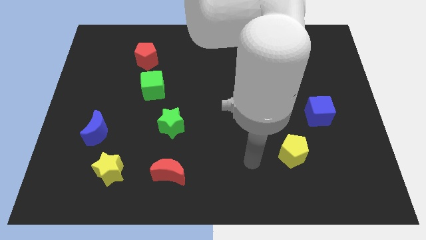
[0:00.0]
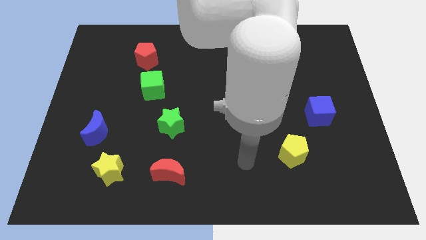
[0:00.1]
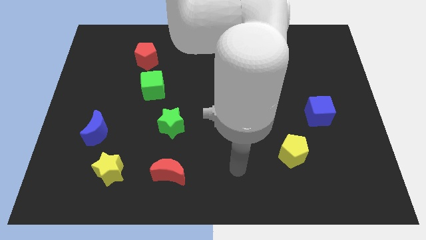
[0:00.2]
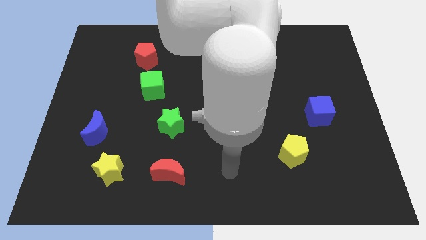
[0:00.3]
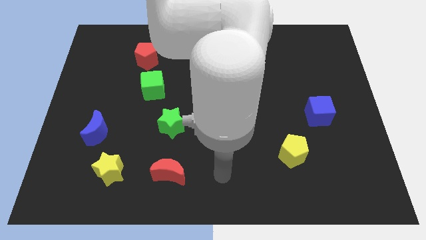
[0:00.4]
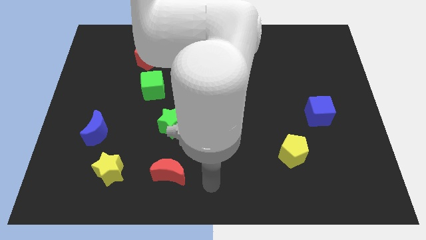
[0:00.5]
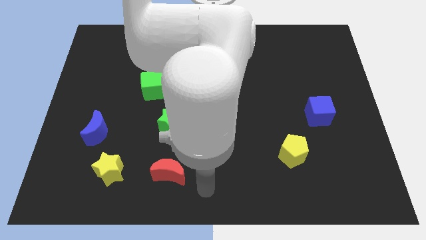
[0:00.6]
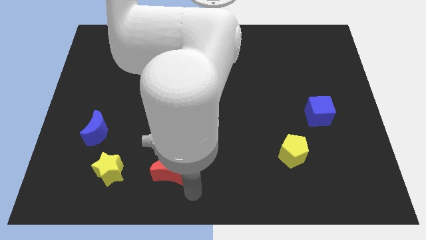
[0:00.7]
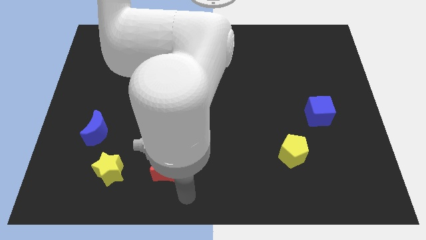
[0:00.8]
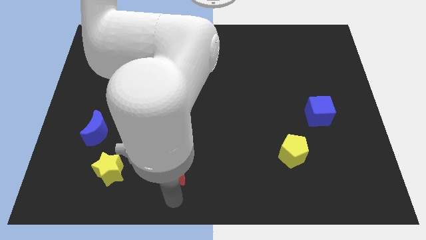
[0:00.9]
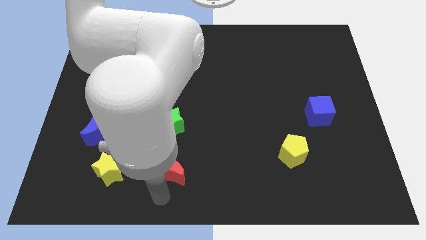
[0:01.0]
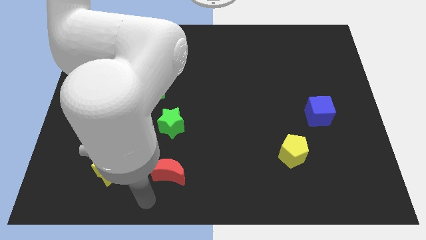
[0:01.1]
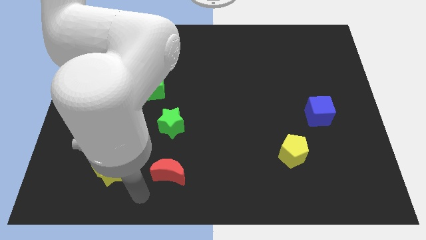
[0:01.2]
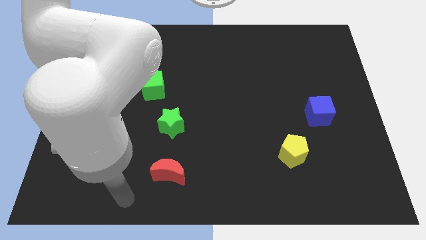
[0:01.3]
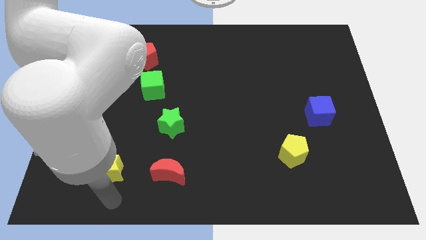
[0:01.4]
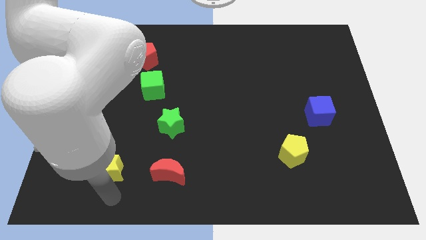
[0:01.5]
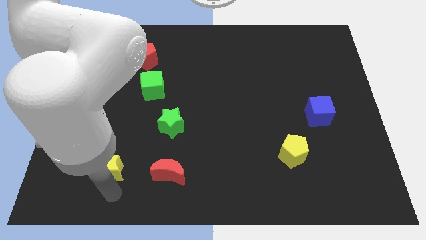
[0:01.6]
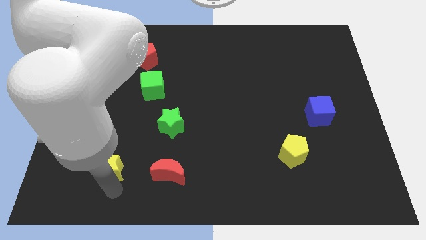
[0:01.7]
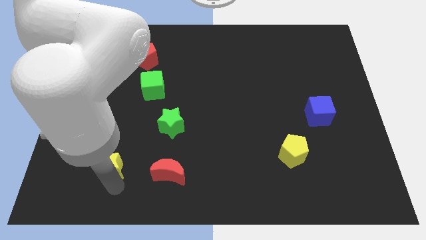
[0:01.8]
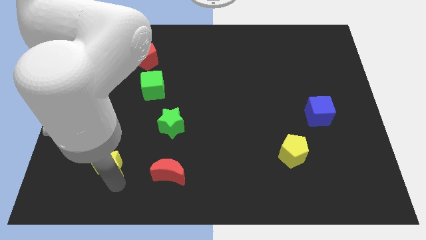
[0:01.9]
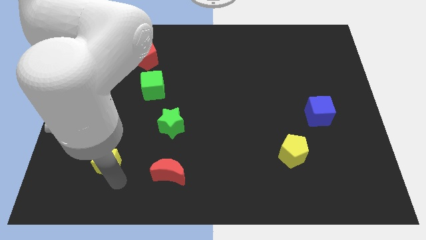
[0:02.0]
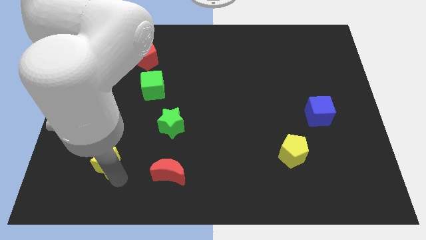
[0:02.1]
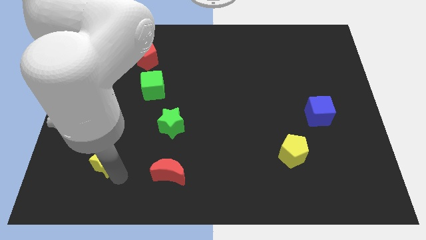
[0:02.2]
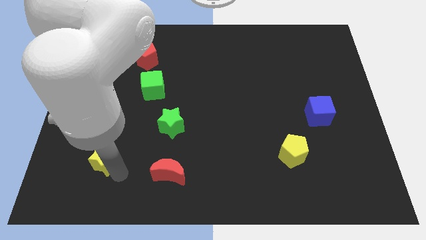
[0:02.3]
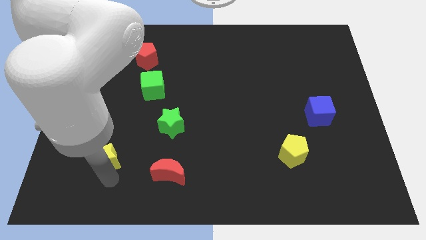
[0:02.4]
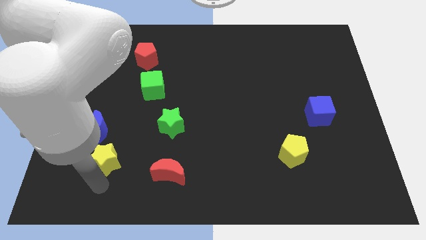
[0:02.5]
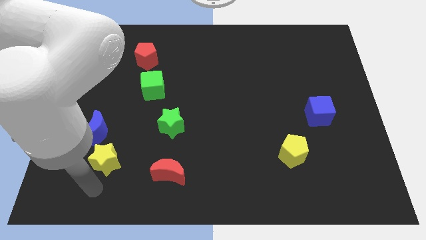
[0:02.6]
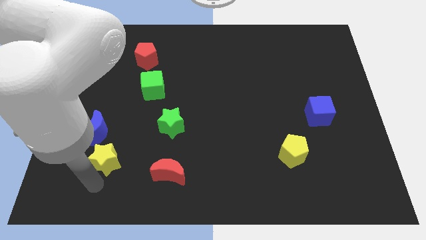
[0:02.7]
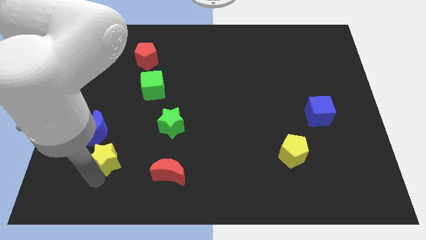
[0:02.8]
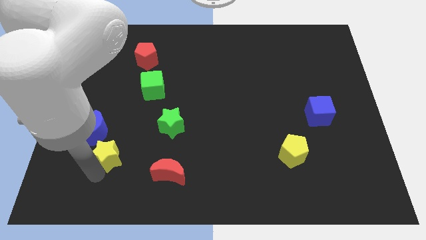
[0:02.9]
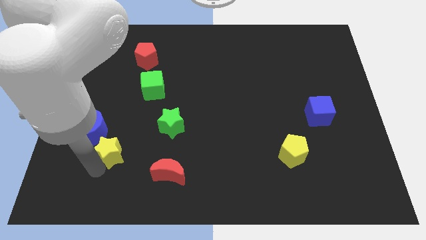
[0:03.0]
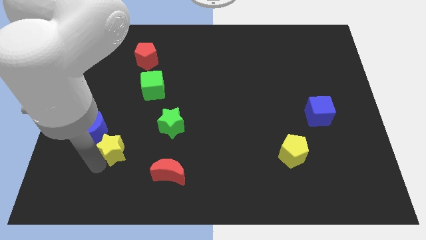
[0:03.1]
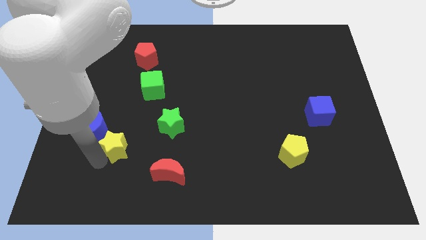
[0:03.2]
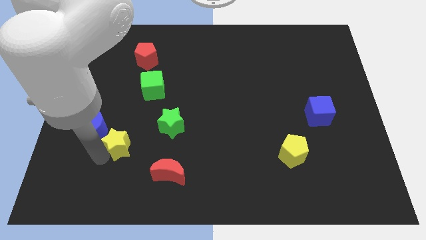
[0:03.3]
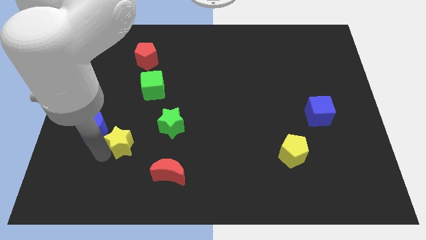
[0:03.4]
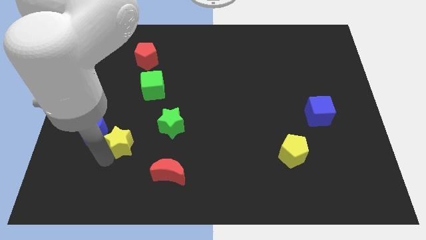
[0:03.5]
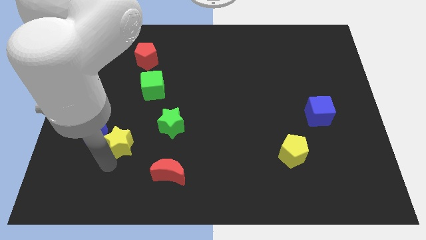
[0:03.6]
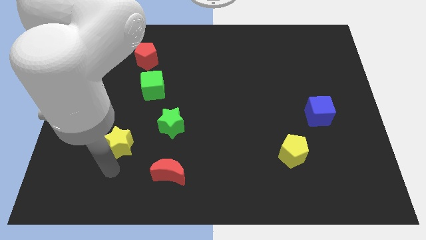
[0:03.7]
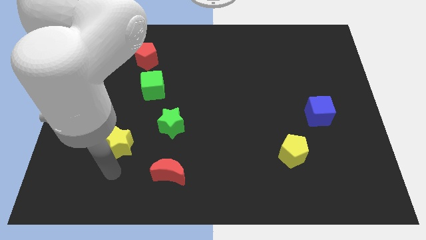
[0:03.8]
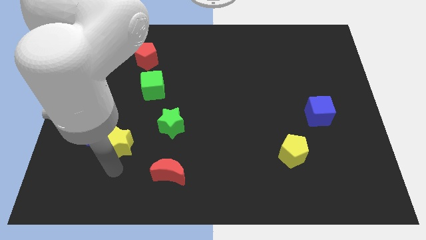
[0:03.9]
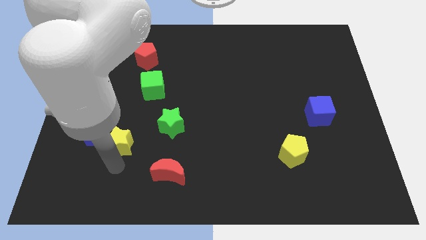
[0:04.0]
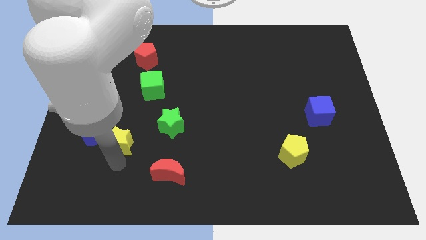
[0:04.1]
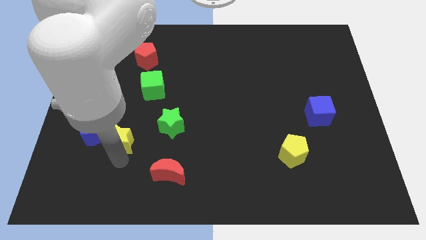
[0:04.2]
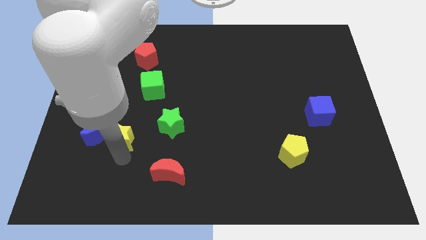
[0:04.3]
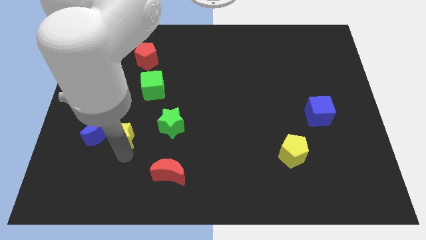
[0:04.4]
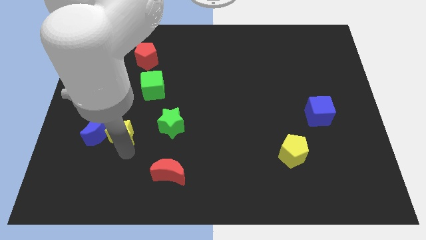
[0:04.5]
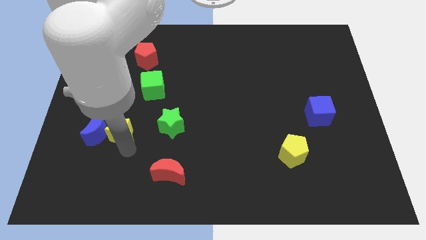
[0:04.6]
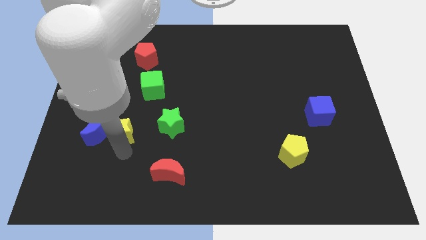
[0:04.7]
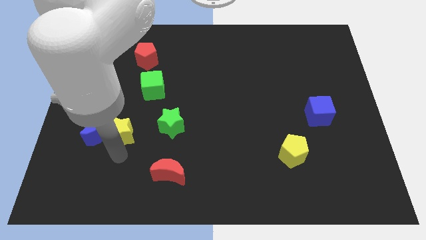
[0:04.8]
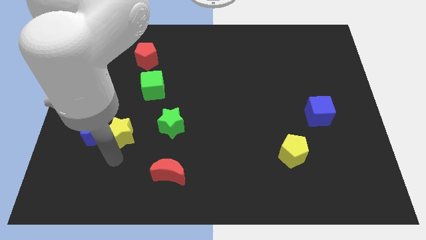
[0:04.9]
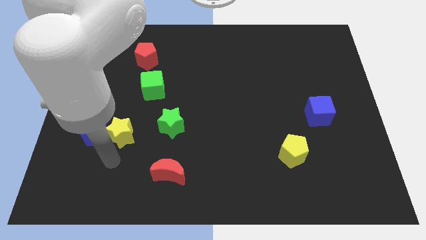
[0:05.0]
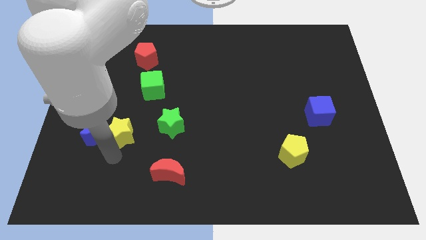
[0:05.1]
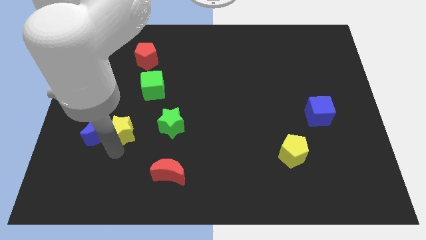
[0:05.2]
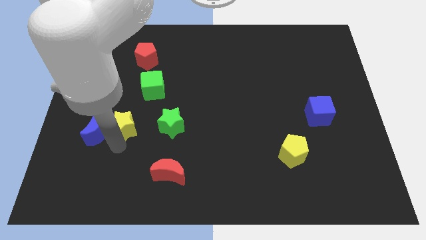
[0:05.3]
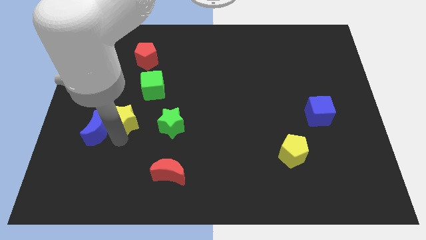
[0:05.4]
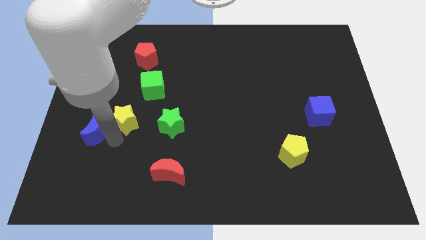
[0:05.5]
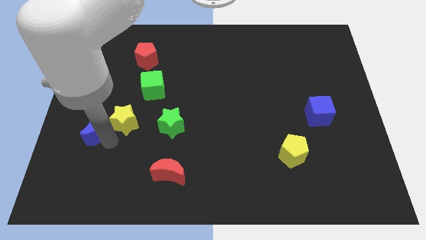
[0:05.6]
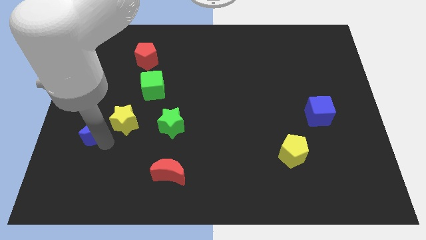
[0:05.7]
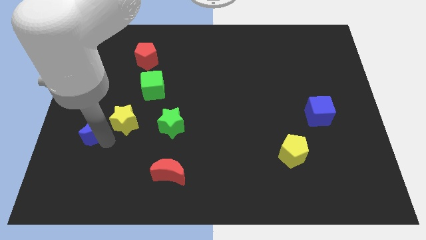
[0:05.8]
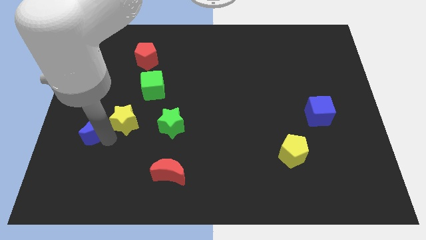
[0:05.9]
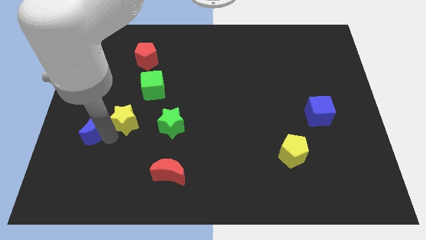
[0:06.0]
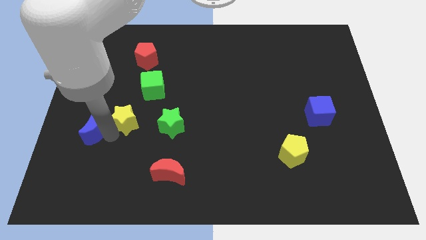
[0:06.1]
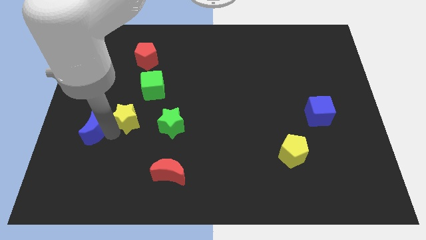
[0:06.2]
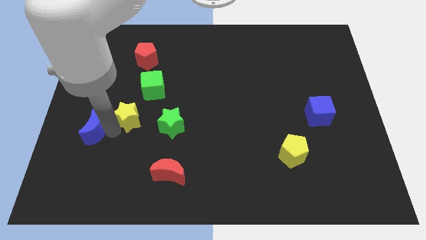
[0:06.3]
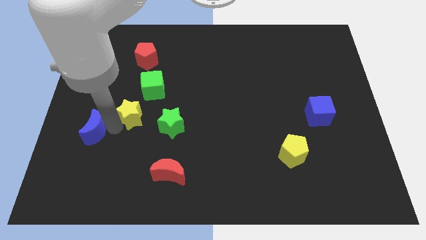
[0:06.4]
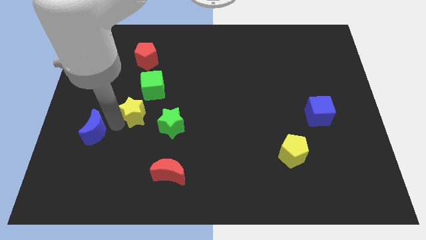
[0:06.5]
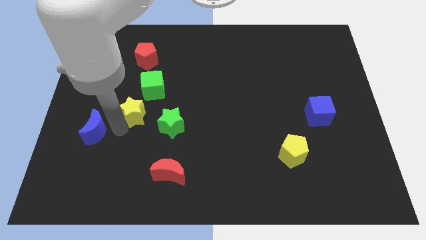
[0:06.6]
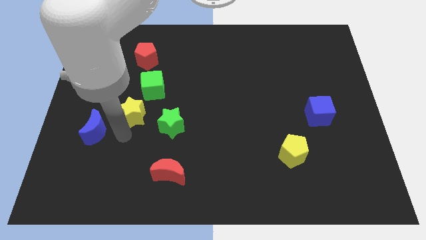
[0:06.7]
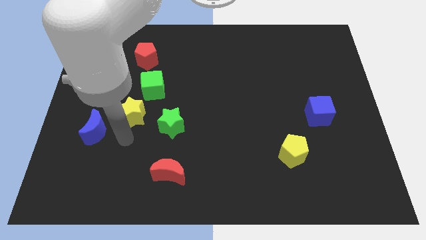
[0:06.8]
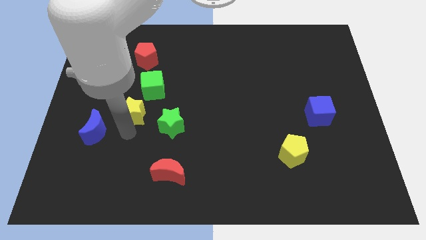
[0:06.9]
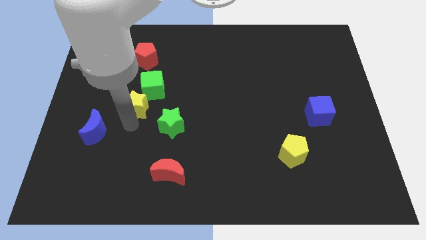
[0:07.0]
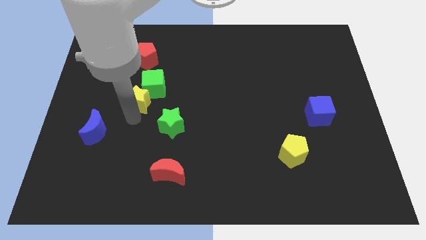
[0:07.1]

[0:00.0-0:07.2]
put the yellow star to the bottom of the red pentagon
